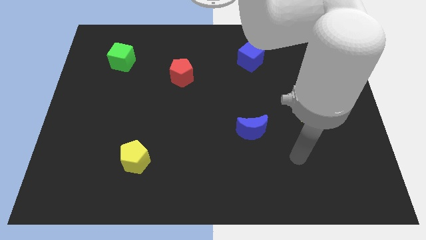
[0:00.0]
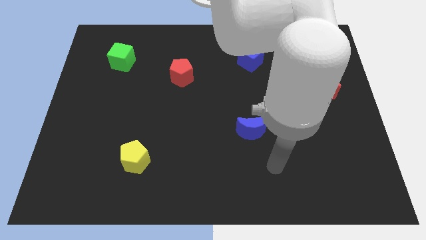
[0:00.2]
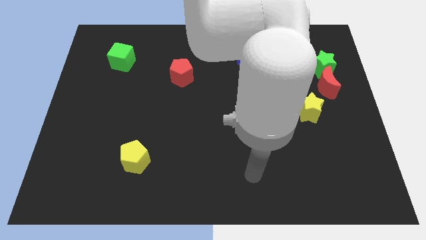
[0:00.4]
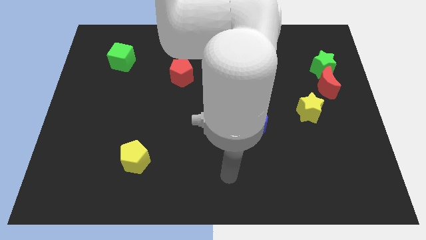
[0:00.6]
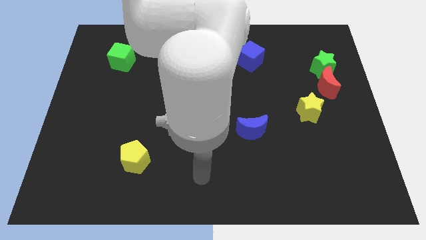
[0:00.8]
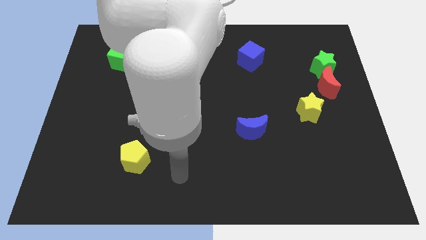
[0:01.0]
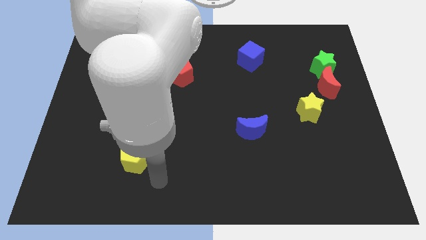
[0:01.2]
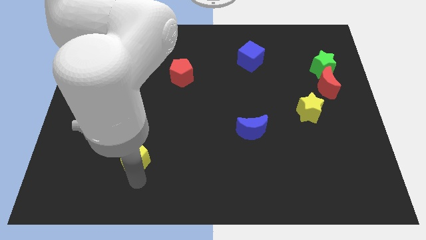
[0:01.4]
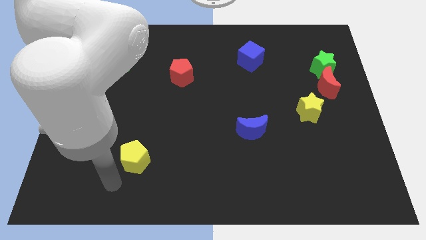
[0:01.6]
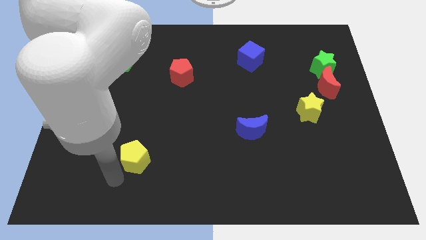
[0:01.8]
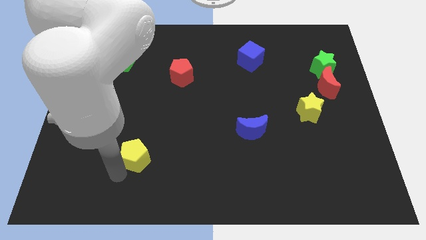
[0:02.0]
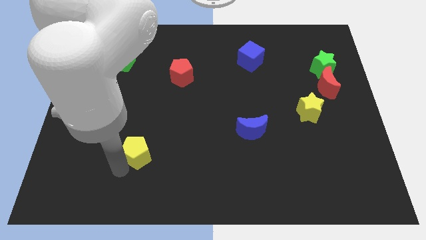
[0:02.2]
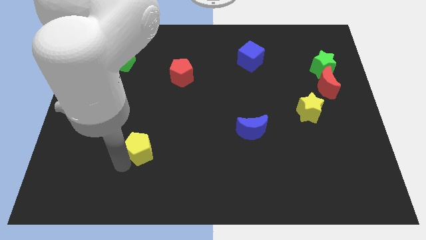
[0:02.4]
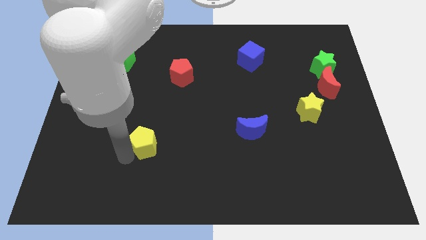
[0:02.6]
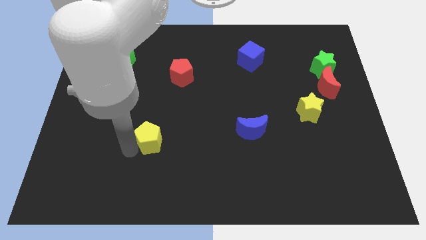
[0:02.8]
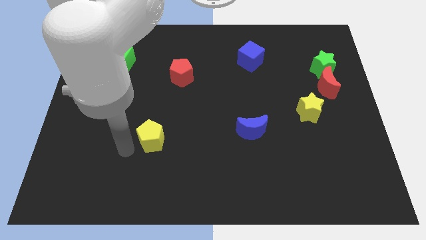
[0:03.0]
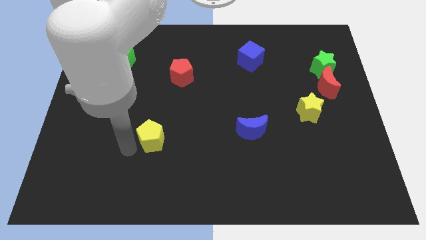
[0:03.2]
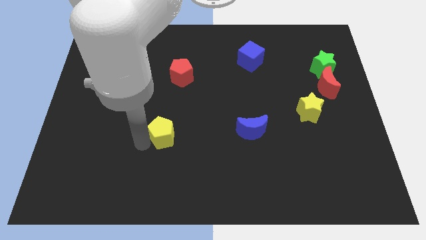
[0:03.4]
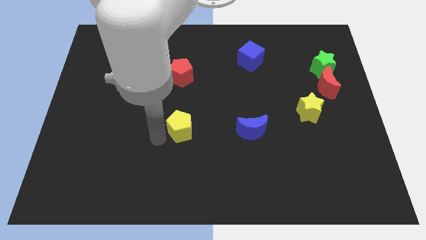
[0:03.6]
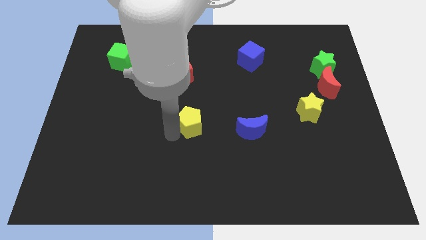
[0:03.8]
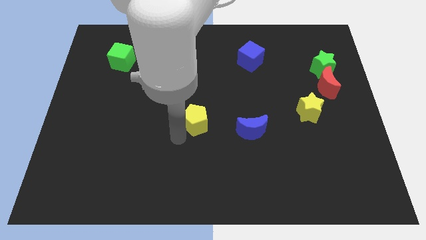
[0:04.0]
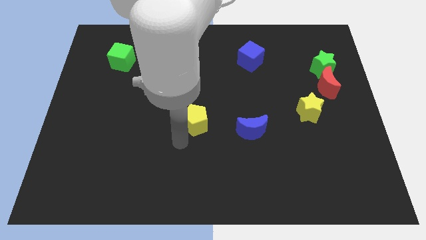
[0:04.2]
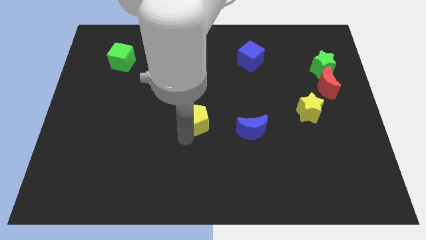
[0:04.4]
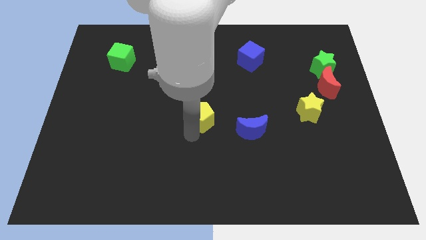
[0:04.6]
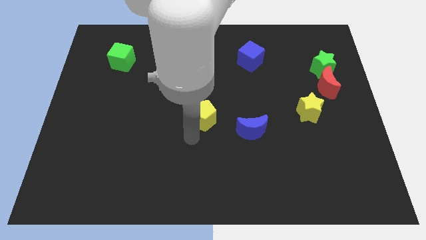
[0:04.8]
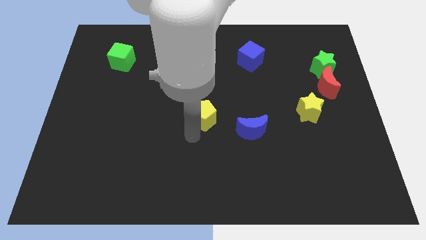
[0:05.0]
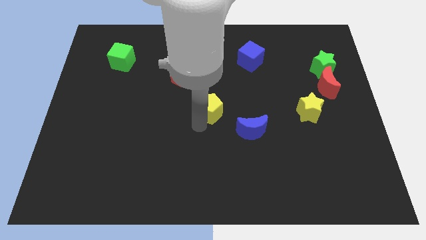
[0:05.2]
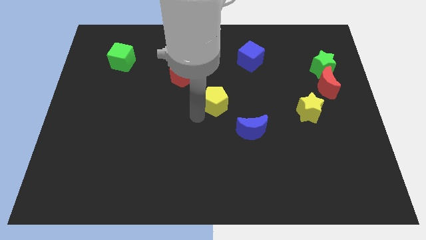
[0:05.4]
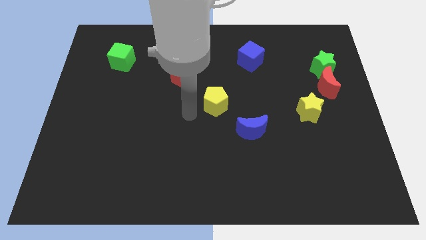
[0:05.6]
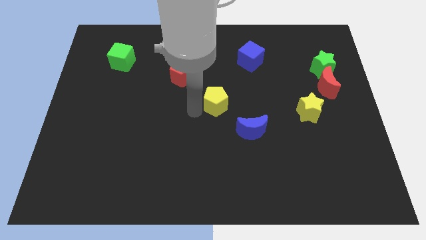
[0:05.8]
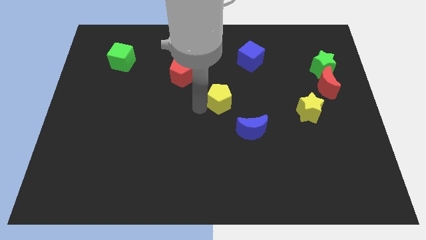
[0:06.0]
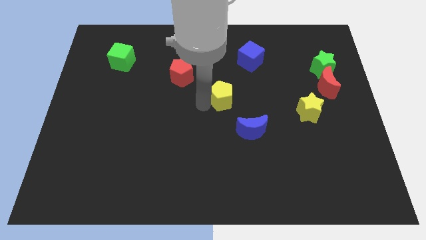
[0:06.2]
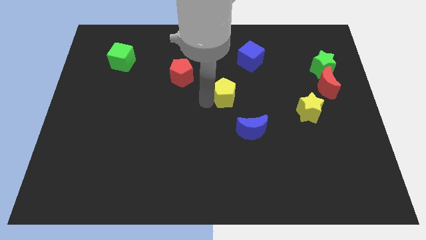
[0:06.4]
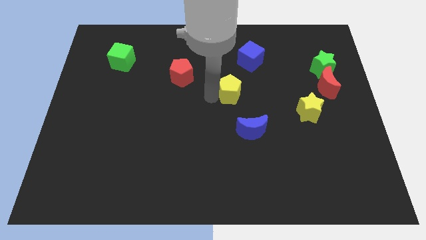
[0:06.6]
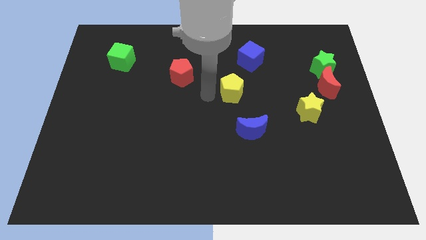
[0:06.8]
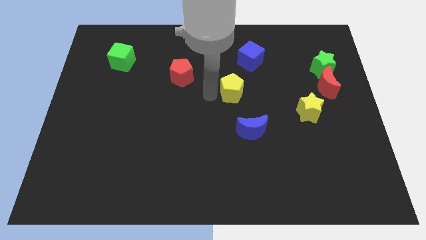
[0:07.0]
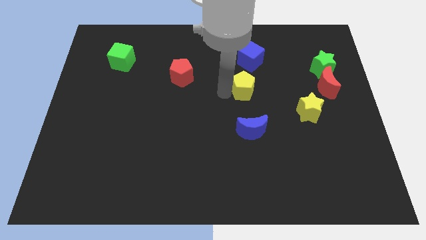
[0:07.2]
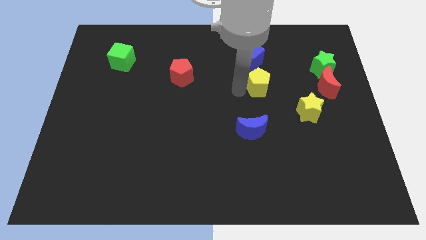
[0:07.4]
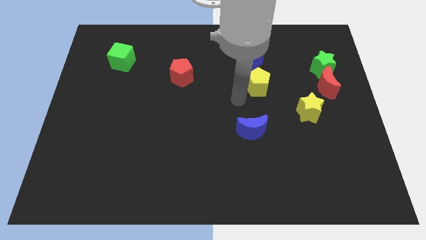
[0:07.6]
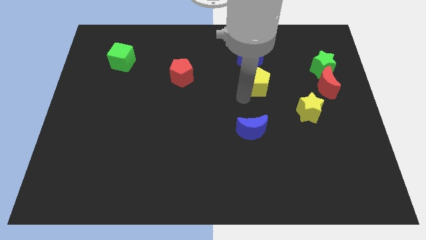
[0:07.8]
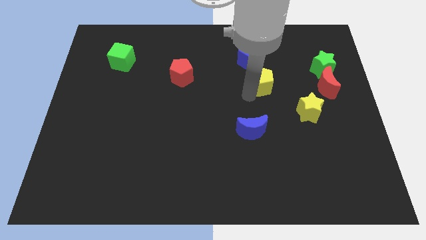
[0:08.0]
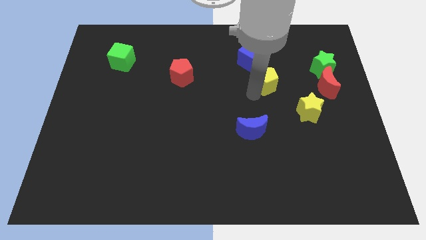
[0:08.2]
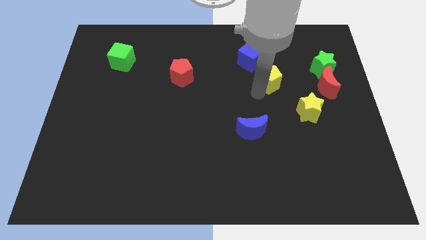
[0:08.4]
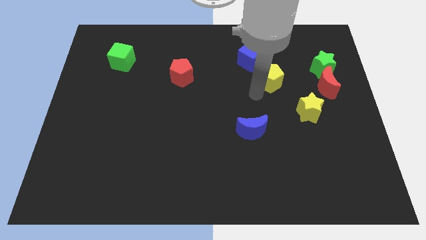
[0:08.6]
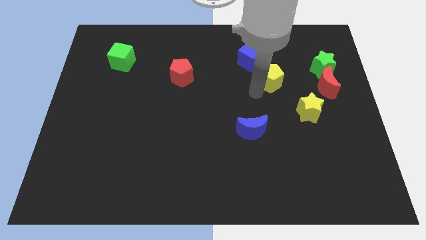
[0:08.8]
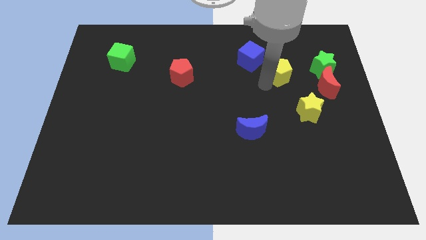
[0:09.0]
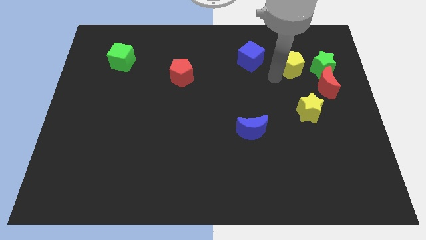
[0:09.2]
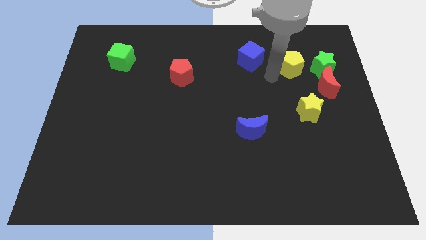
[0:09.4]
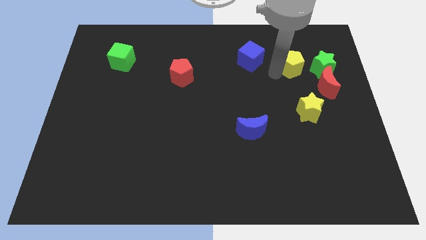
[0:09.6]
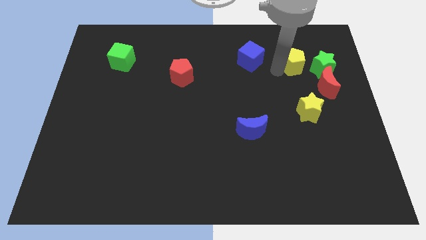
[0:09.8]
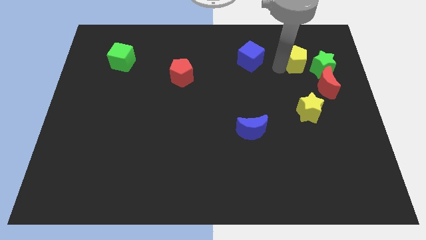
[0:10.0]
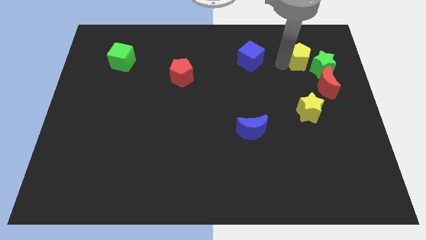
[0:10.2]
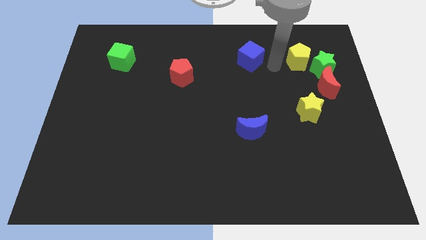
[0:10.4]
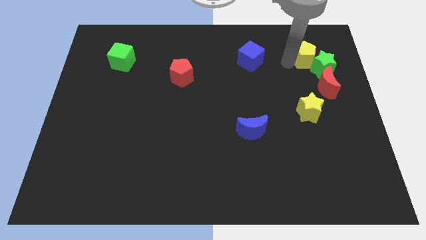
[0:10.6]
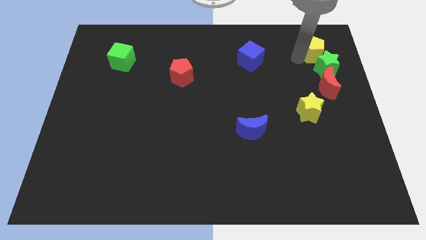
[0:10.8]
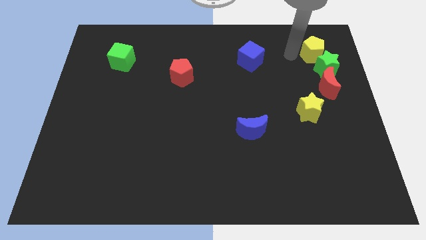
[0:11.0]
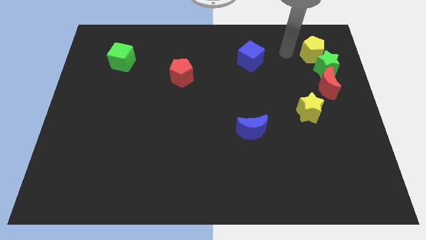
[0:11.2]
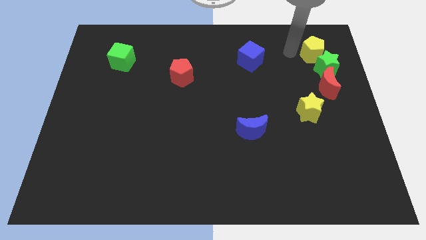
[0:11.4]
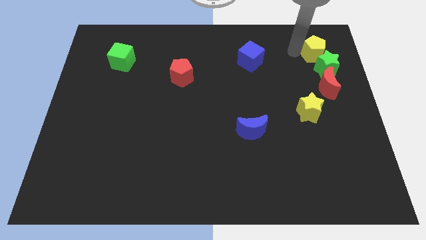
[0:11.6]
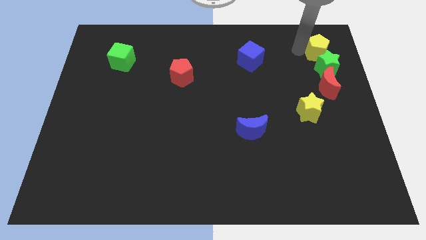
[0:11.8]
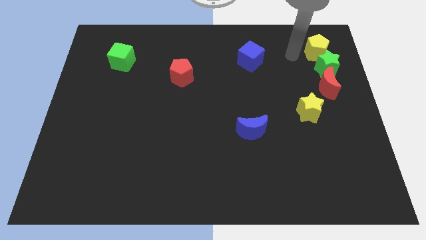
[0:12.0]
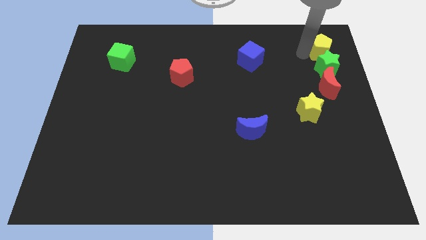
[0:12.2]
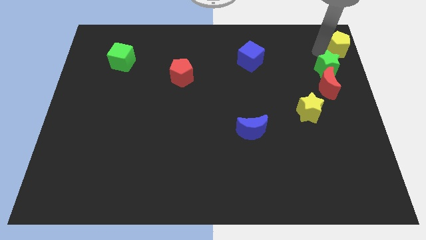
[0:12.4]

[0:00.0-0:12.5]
push the yellow pentagon to the top right of the board
